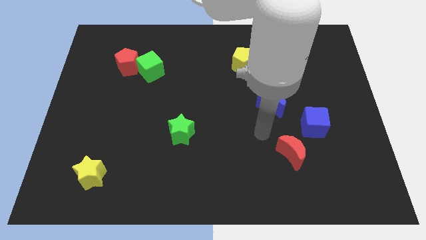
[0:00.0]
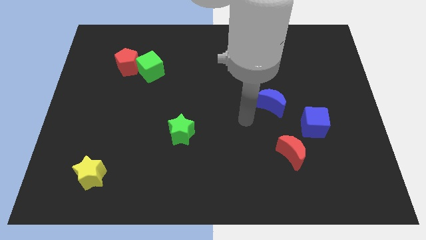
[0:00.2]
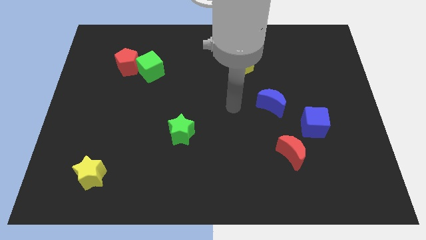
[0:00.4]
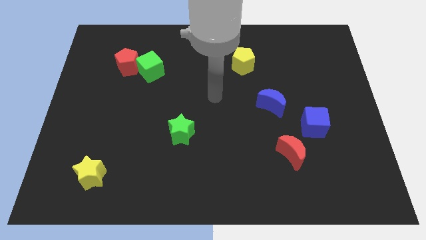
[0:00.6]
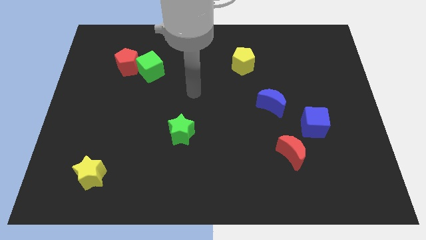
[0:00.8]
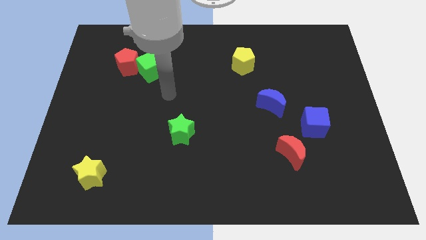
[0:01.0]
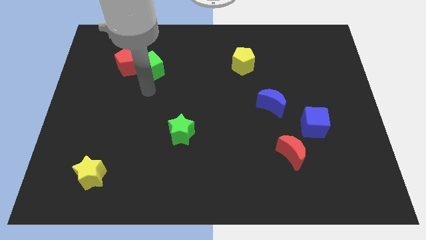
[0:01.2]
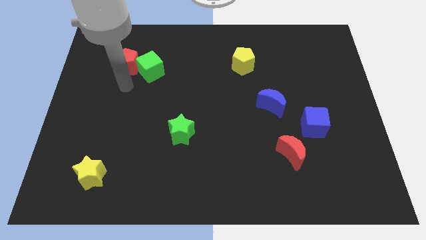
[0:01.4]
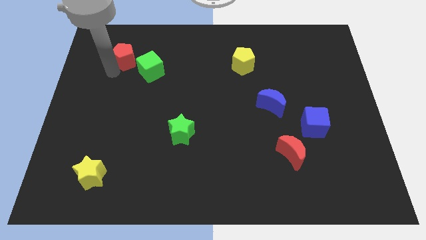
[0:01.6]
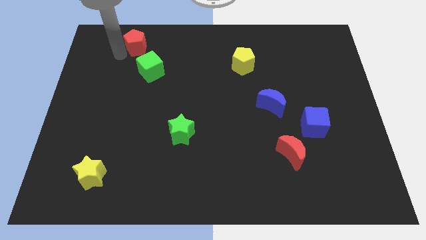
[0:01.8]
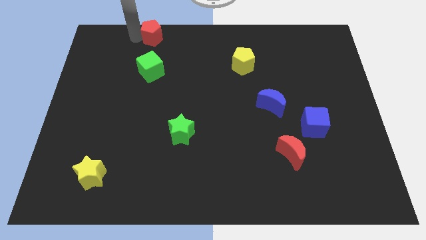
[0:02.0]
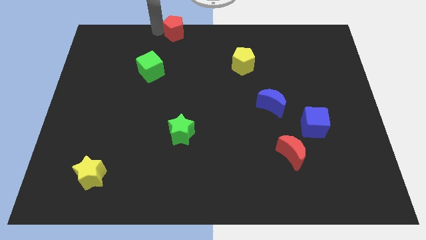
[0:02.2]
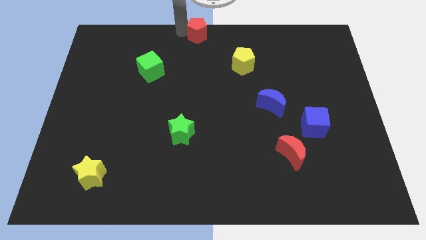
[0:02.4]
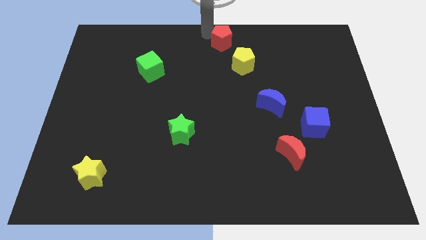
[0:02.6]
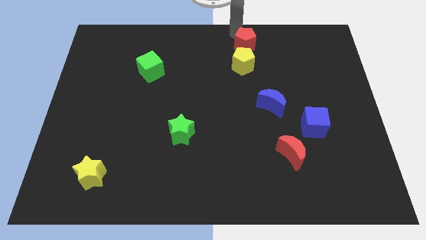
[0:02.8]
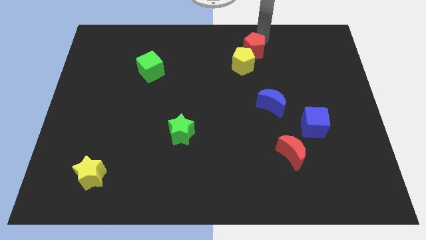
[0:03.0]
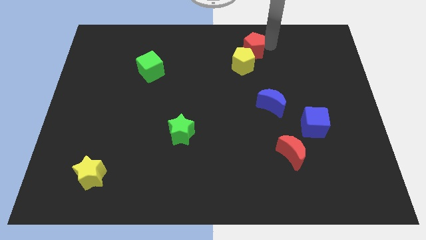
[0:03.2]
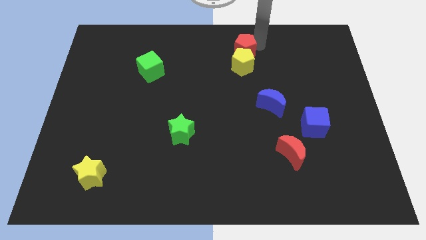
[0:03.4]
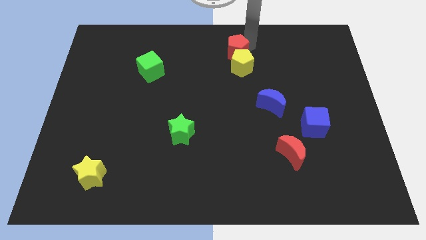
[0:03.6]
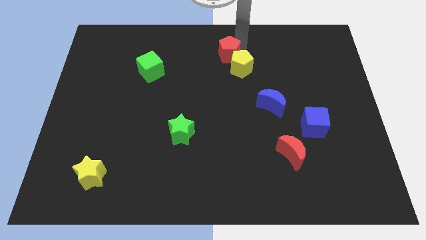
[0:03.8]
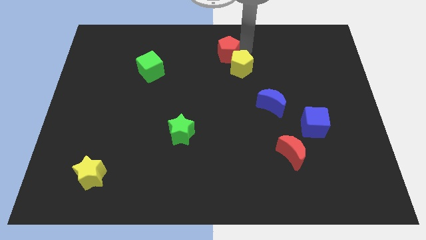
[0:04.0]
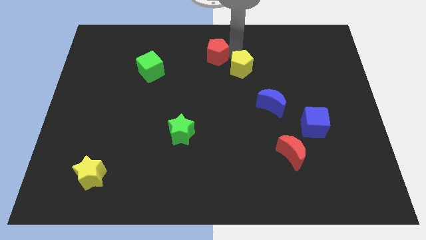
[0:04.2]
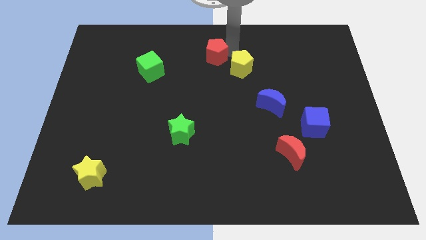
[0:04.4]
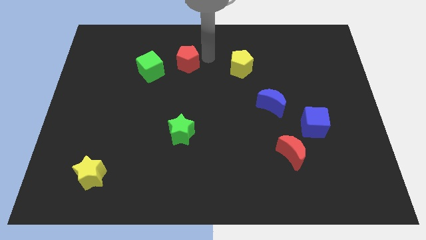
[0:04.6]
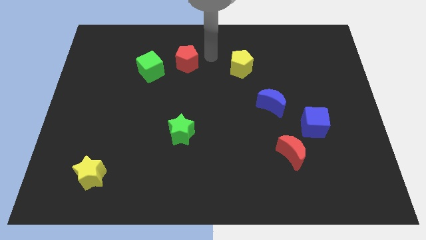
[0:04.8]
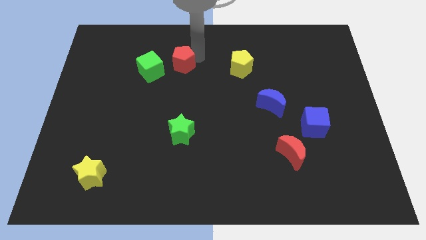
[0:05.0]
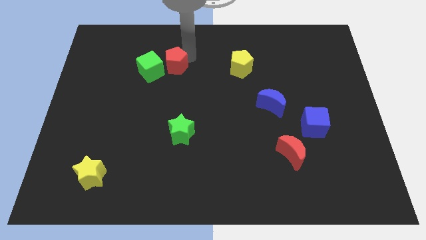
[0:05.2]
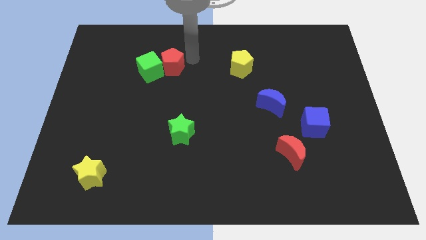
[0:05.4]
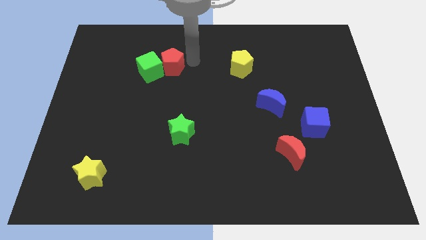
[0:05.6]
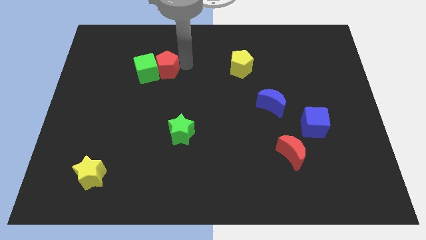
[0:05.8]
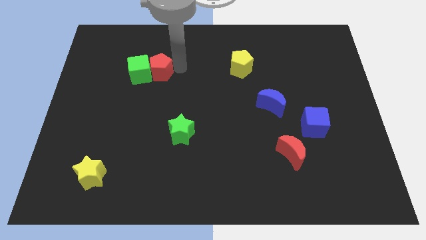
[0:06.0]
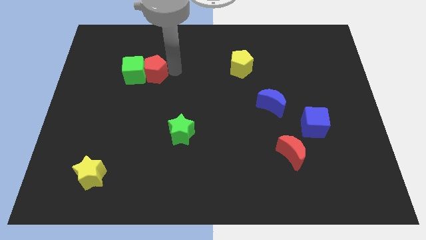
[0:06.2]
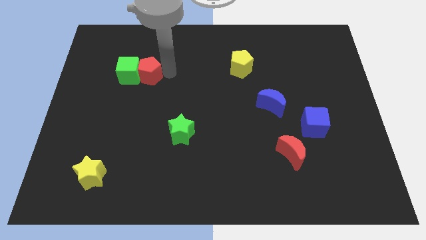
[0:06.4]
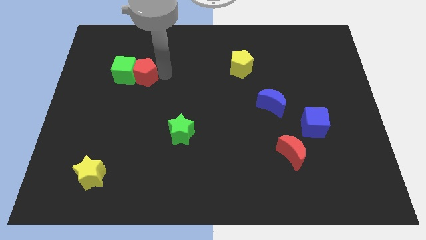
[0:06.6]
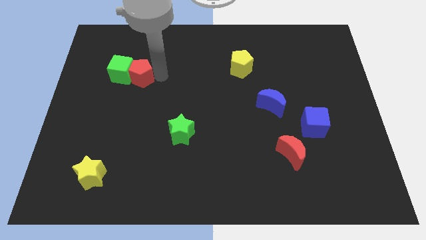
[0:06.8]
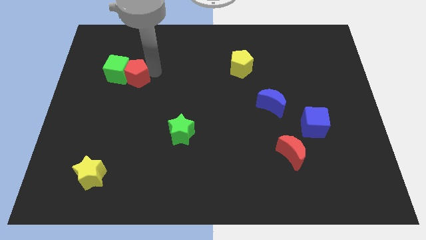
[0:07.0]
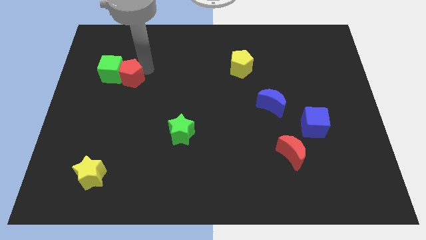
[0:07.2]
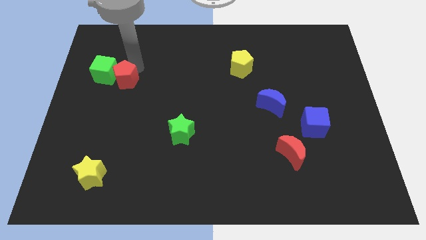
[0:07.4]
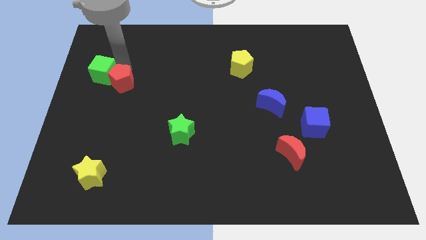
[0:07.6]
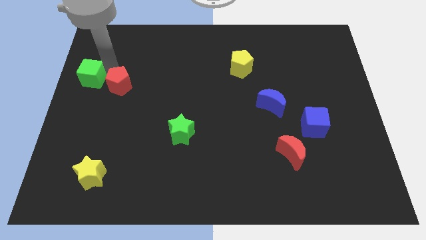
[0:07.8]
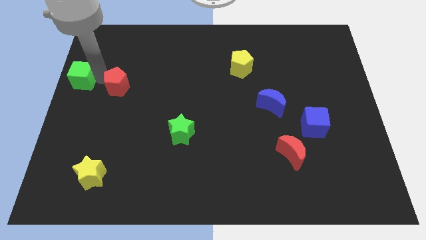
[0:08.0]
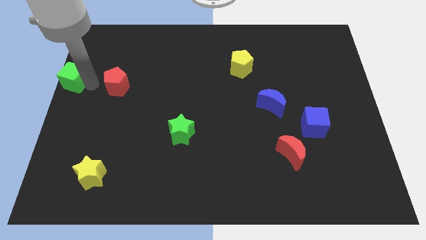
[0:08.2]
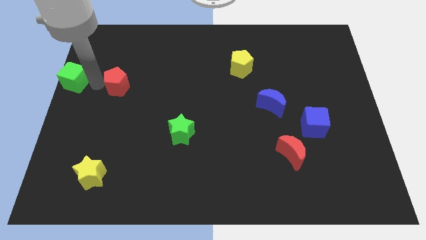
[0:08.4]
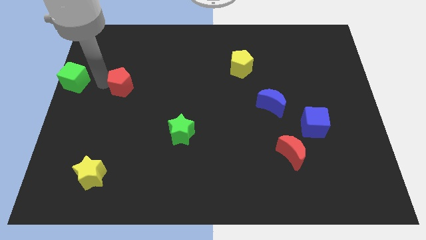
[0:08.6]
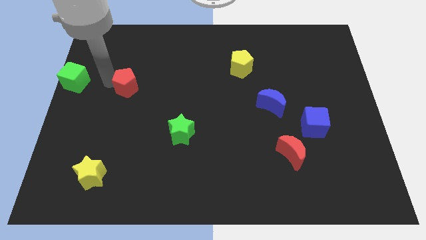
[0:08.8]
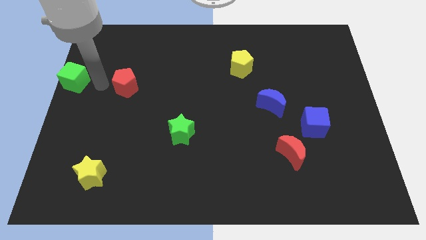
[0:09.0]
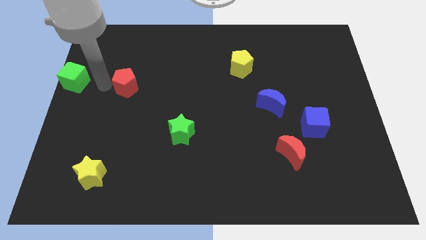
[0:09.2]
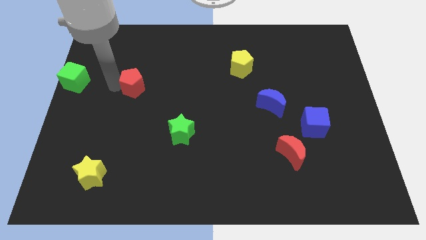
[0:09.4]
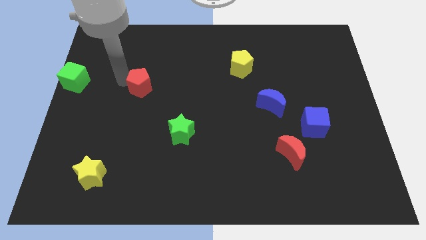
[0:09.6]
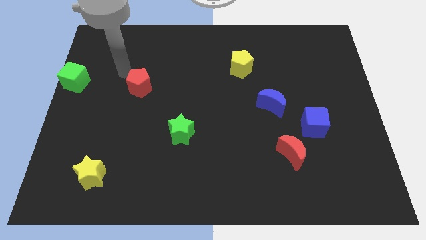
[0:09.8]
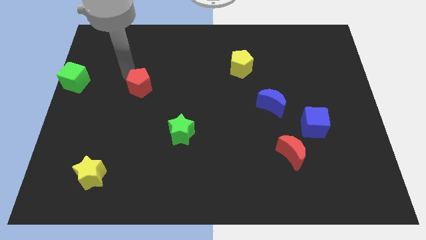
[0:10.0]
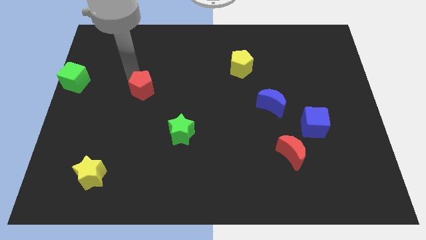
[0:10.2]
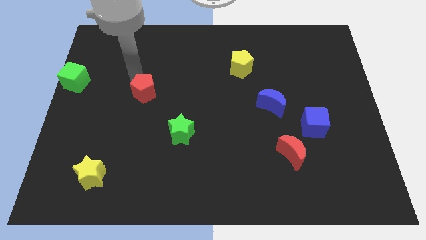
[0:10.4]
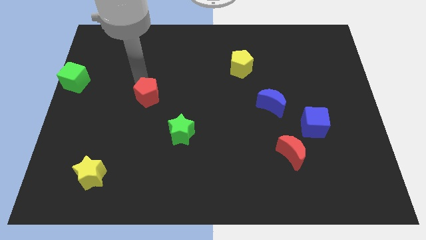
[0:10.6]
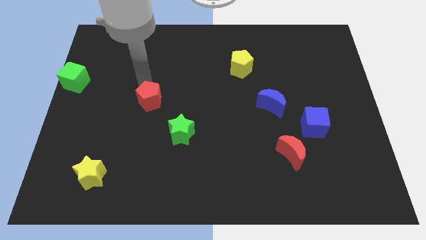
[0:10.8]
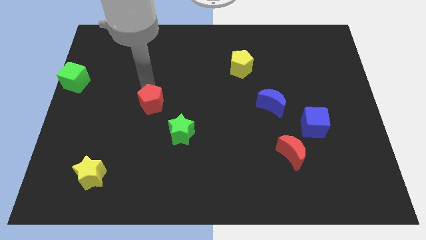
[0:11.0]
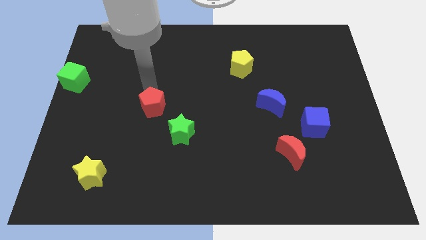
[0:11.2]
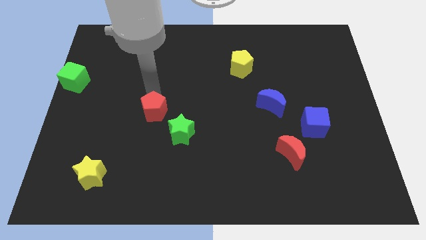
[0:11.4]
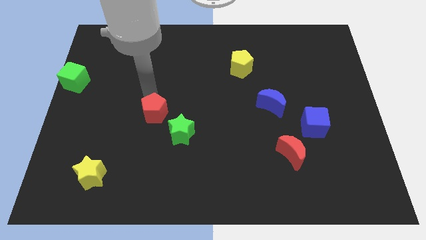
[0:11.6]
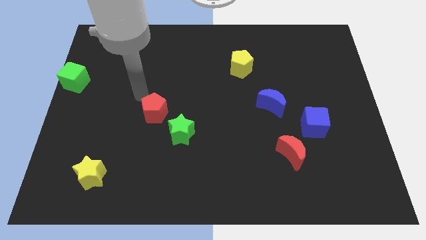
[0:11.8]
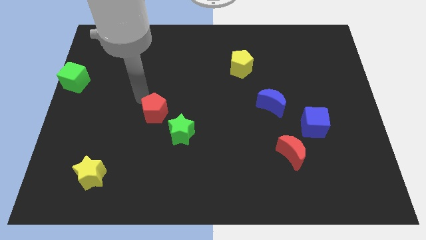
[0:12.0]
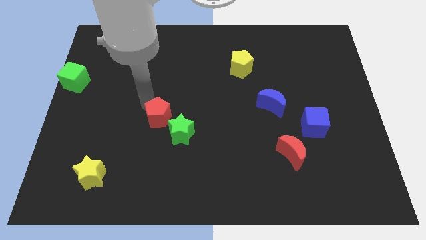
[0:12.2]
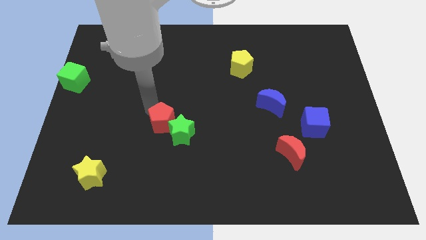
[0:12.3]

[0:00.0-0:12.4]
move the red pentagon towards the green star

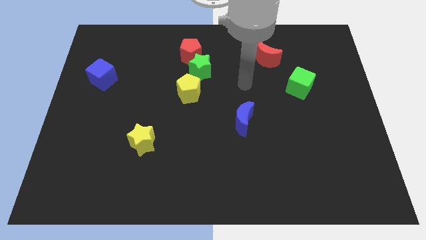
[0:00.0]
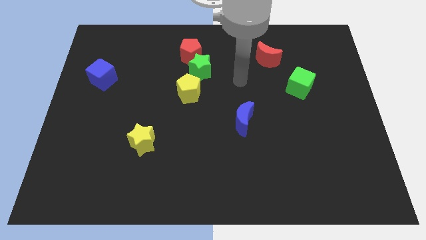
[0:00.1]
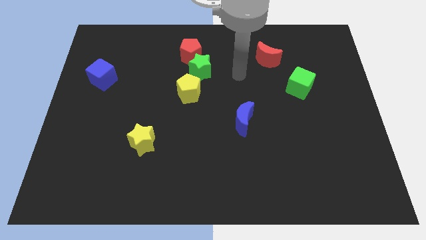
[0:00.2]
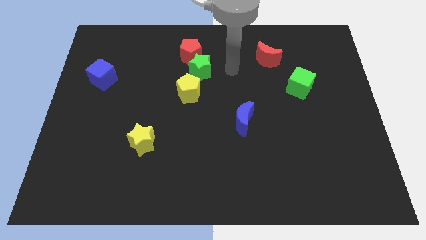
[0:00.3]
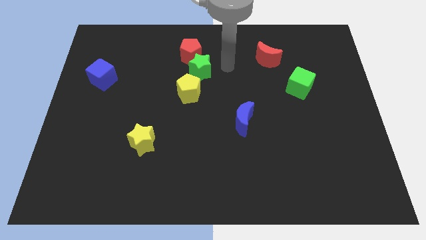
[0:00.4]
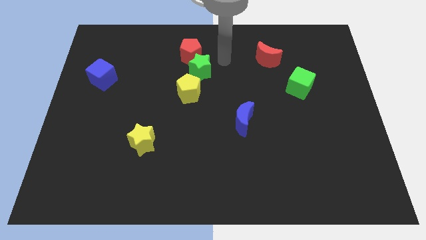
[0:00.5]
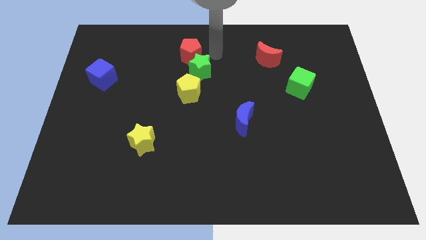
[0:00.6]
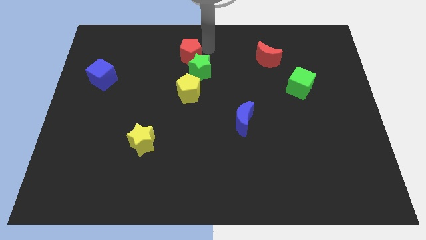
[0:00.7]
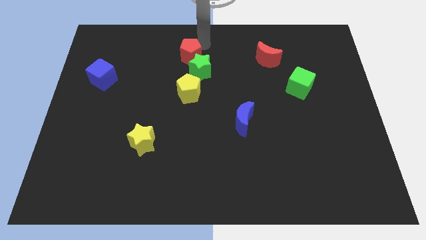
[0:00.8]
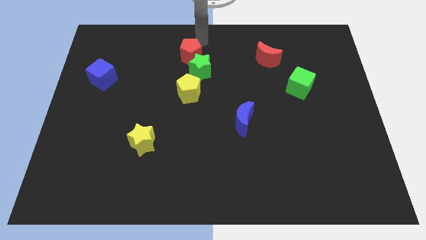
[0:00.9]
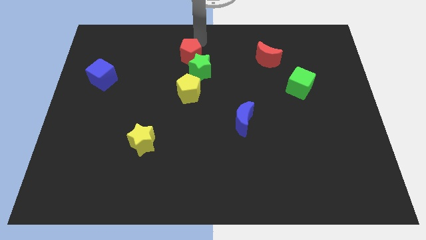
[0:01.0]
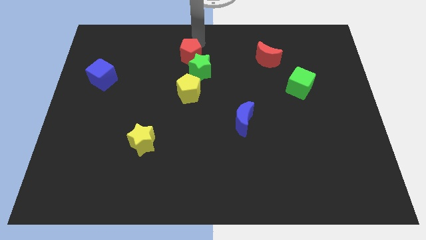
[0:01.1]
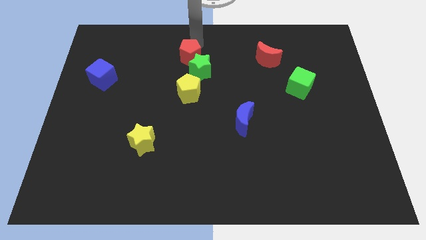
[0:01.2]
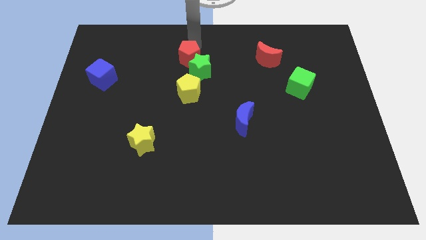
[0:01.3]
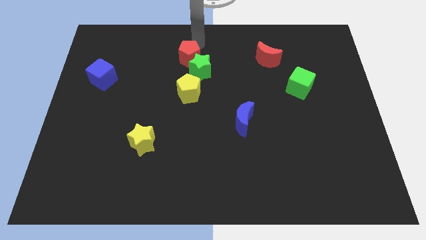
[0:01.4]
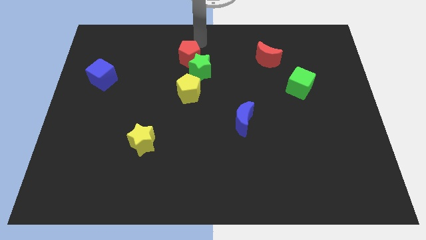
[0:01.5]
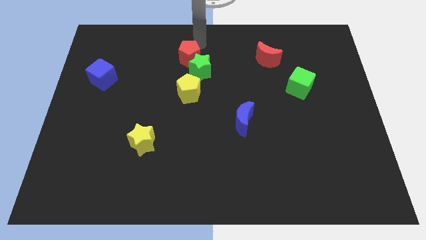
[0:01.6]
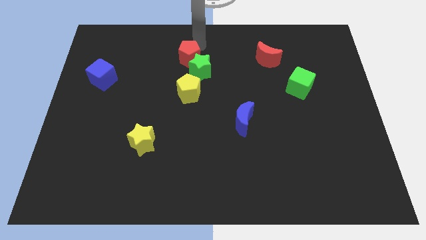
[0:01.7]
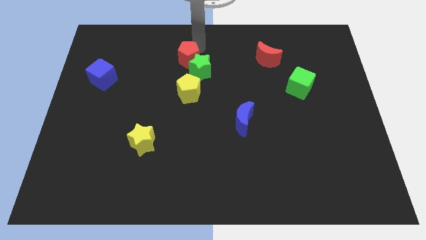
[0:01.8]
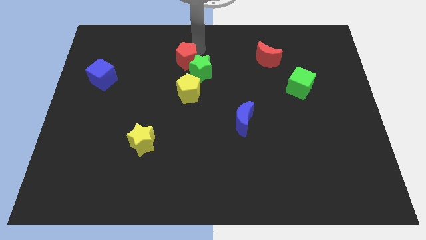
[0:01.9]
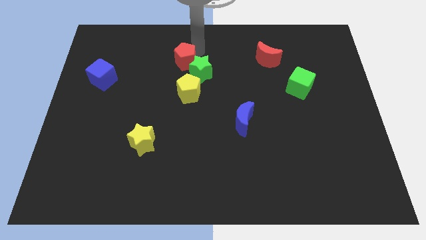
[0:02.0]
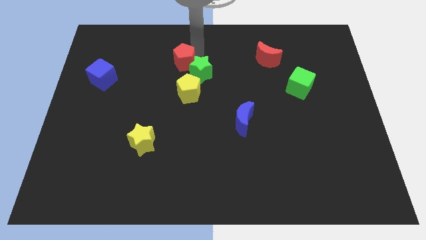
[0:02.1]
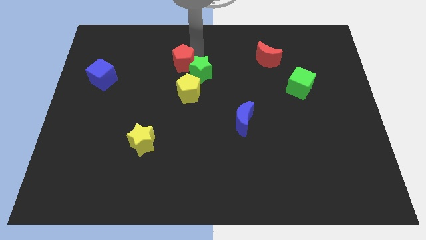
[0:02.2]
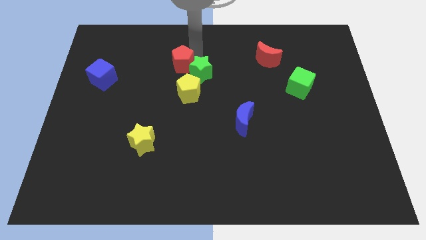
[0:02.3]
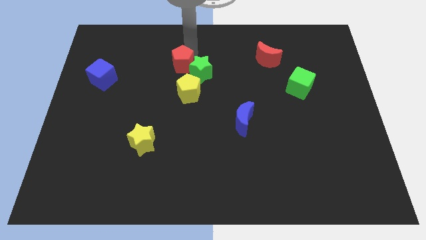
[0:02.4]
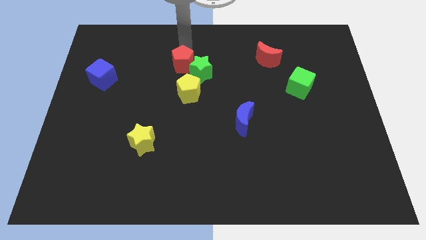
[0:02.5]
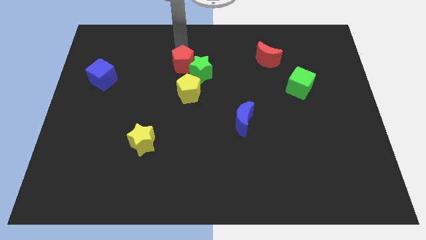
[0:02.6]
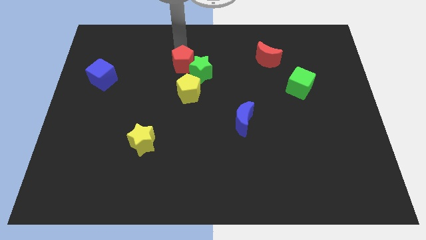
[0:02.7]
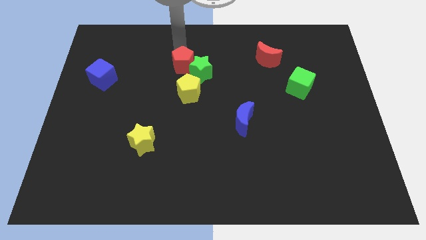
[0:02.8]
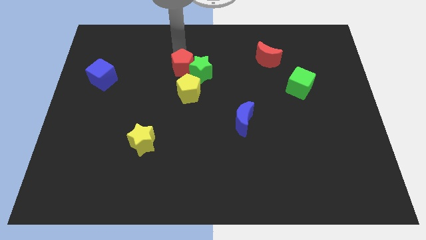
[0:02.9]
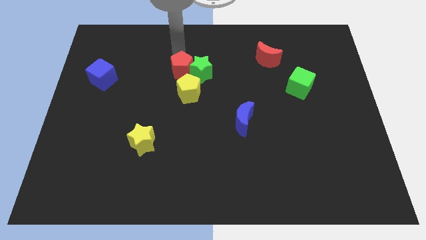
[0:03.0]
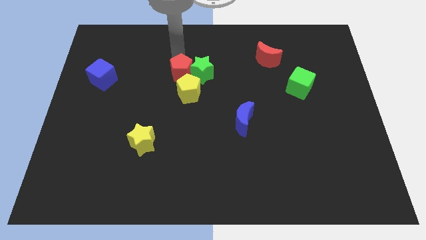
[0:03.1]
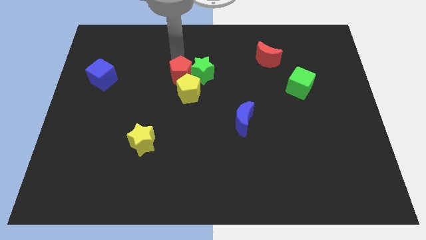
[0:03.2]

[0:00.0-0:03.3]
put the red pentagon next to the yellow pentagon
